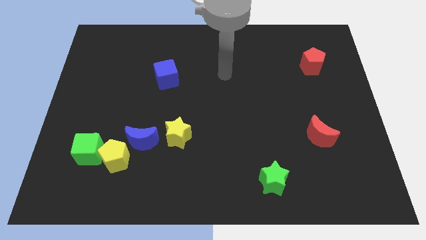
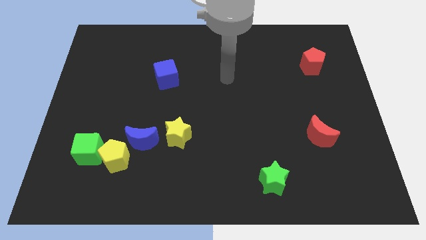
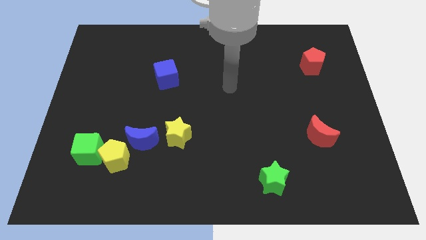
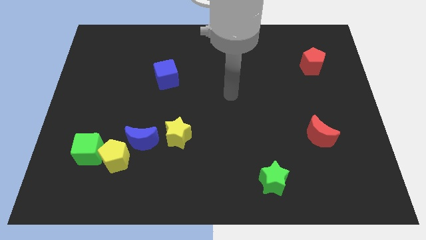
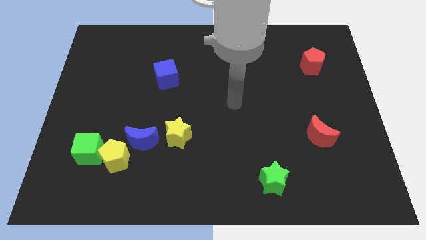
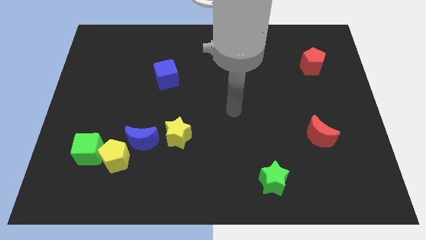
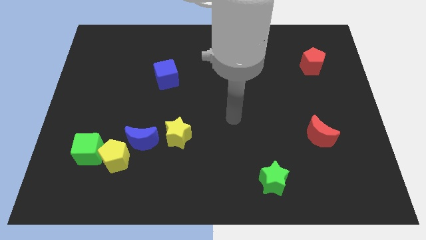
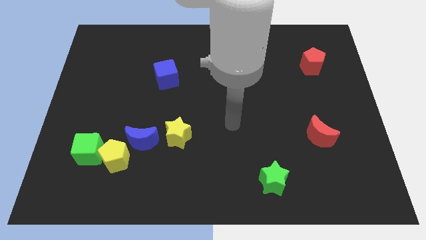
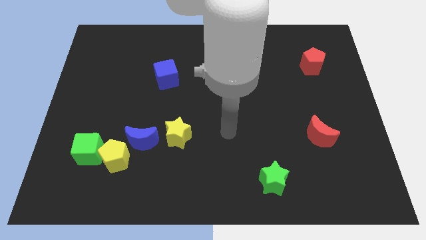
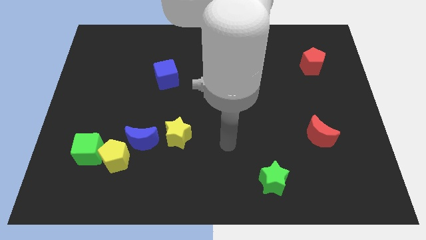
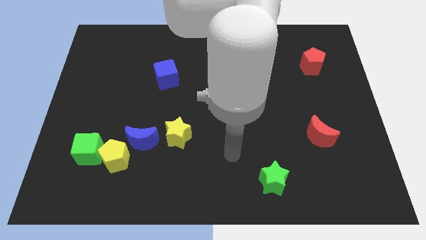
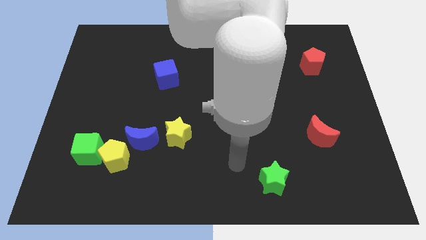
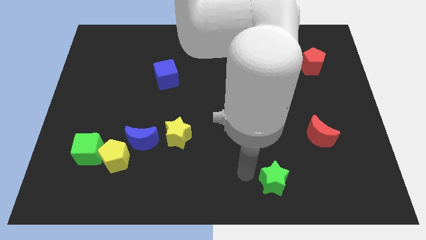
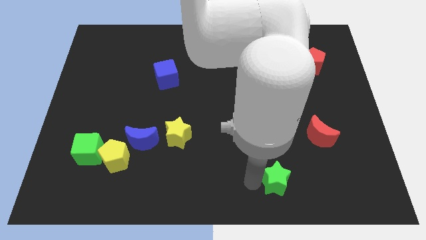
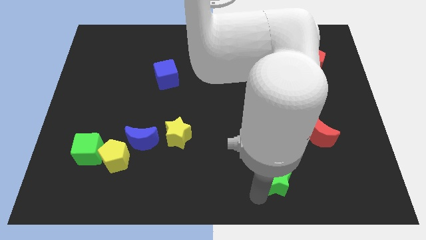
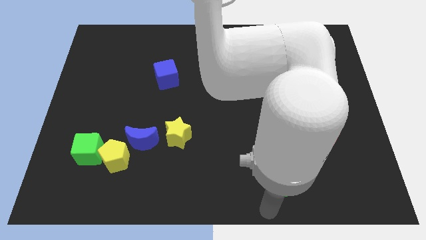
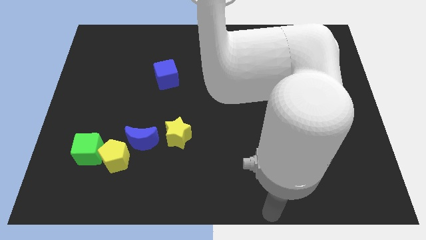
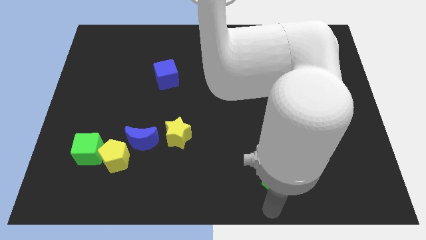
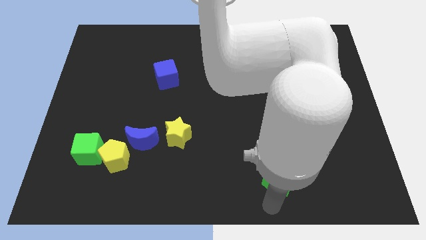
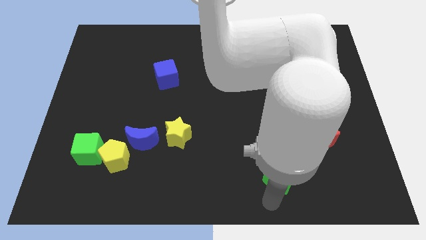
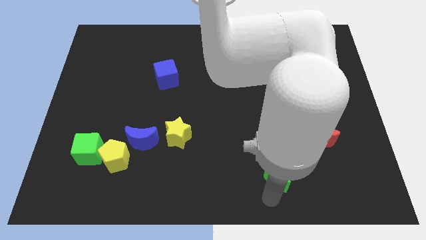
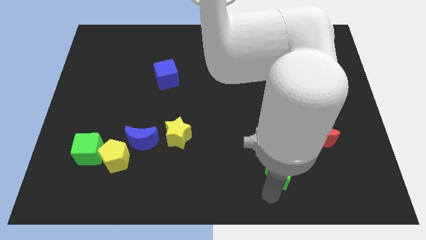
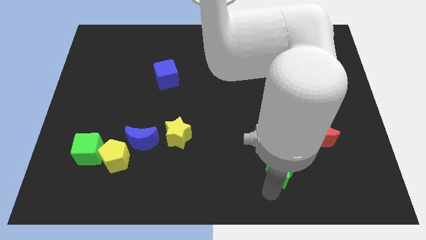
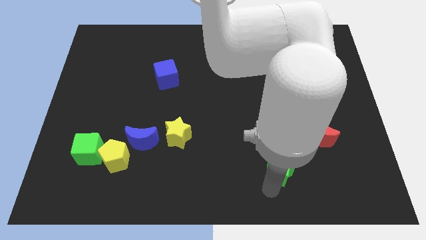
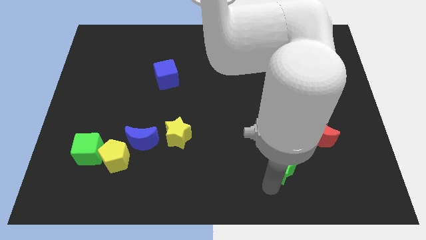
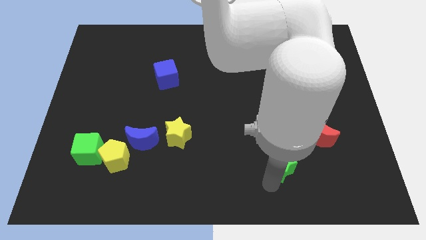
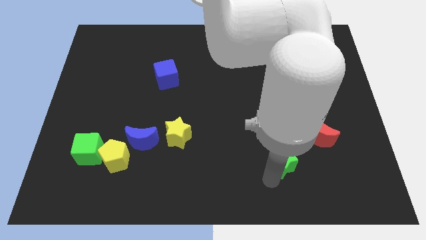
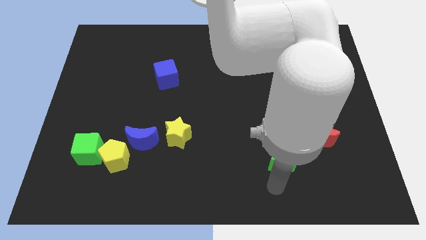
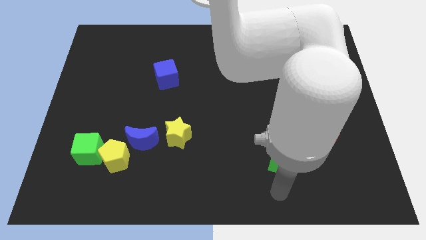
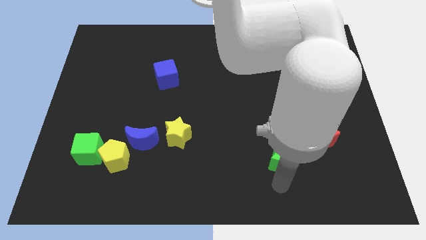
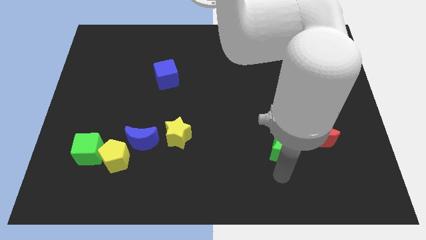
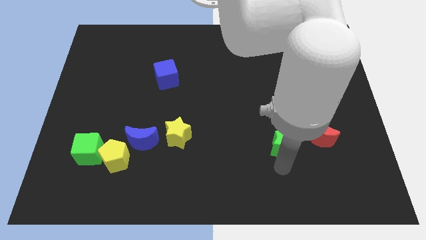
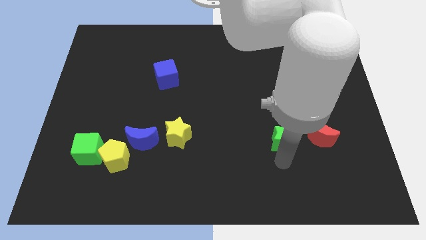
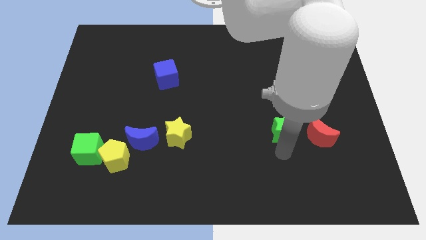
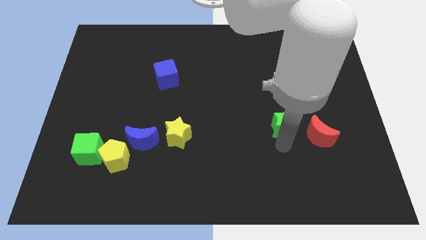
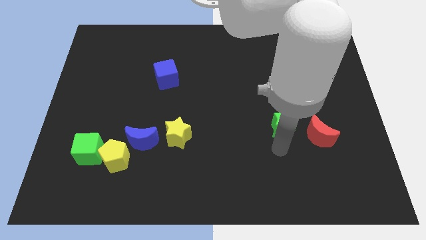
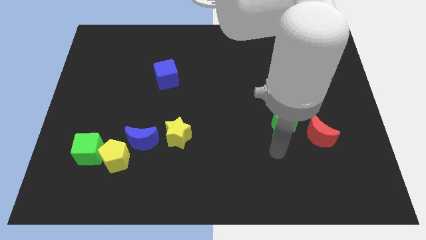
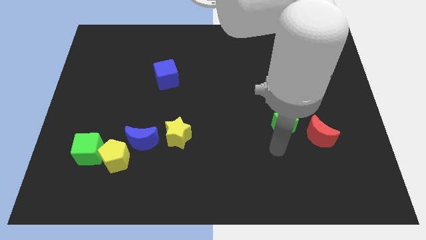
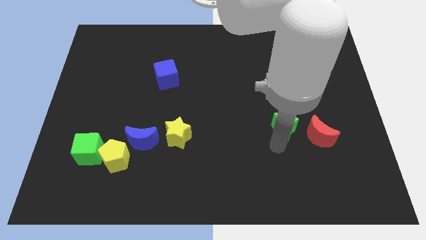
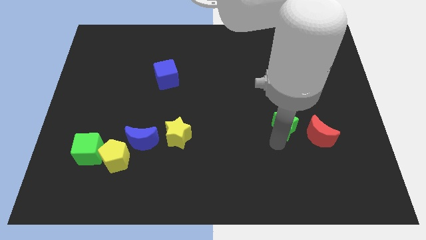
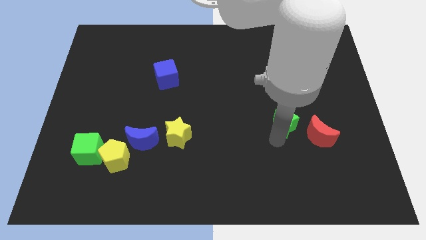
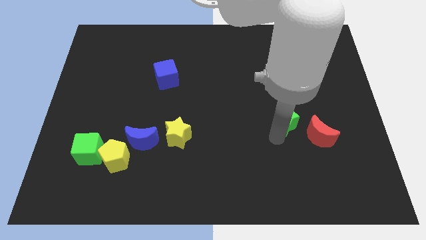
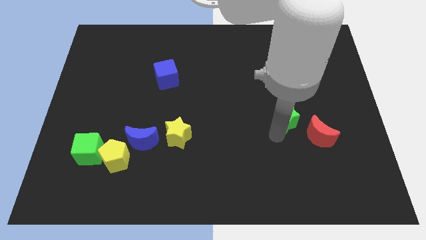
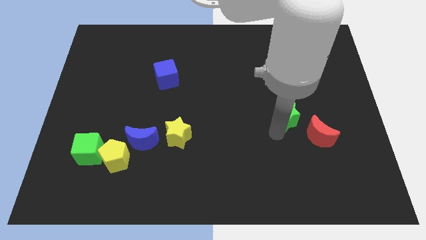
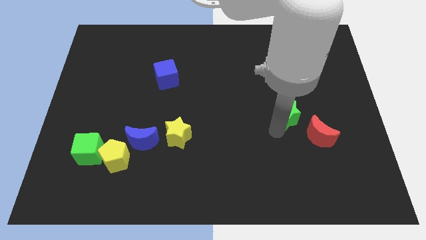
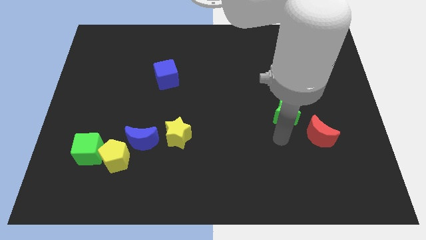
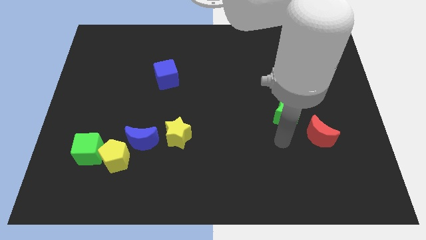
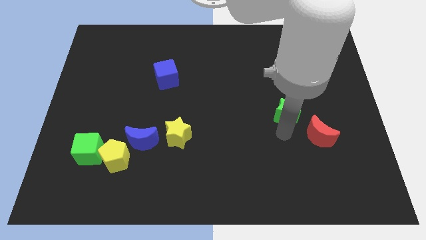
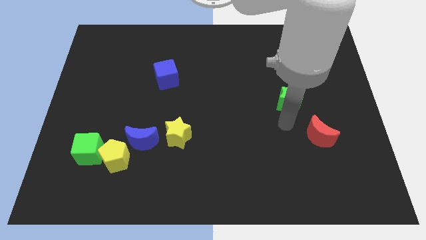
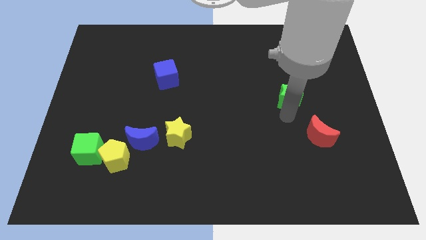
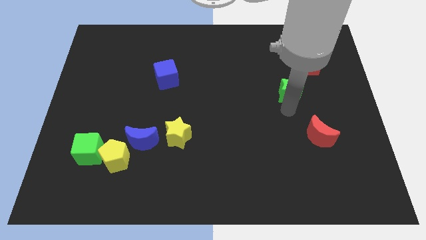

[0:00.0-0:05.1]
put the green star diagonally down and to the left of the red pentagon

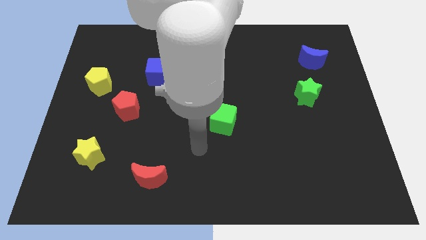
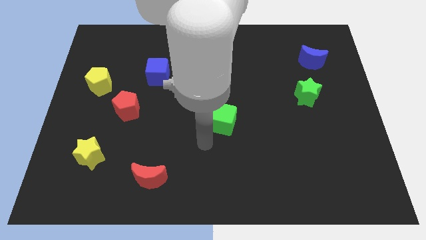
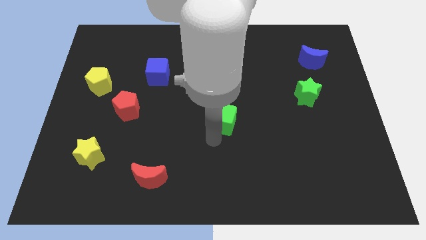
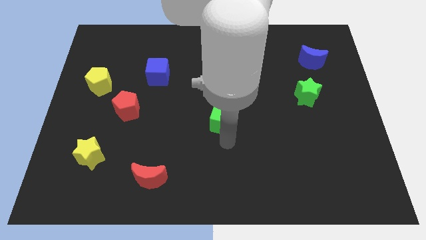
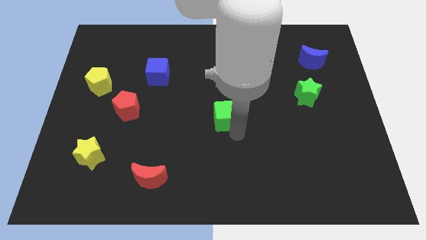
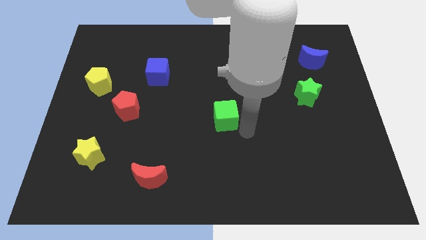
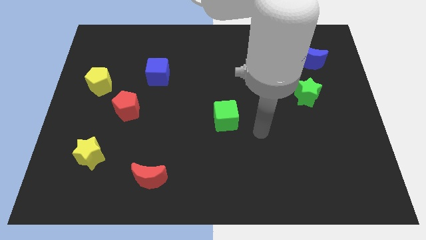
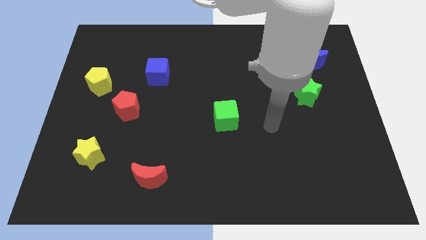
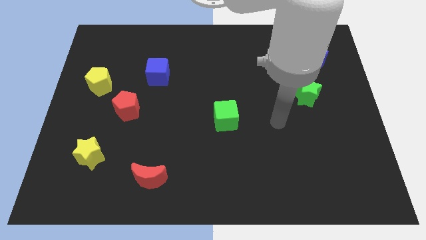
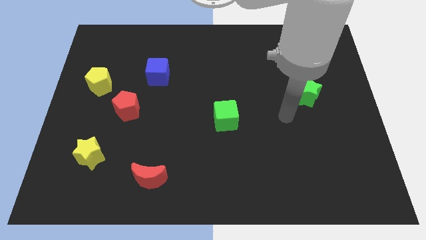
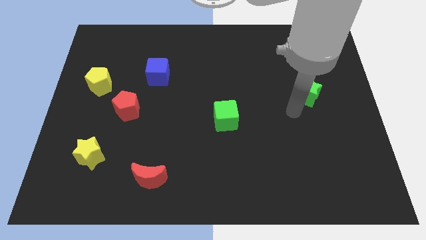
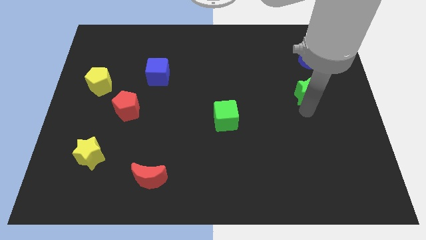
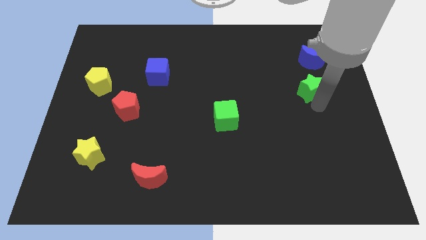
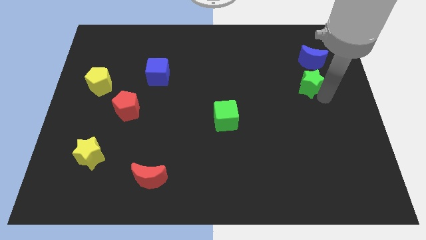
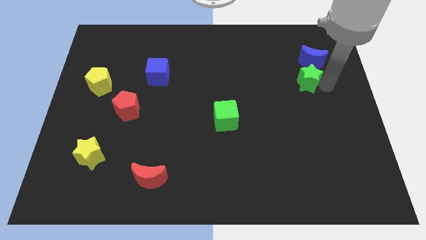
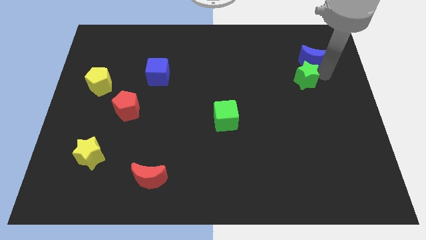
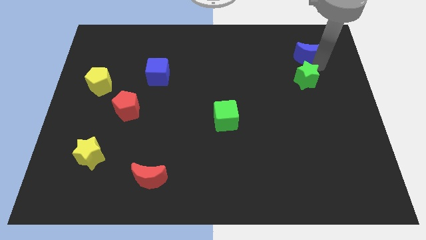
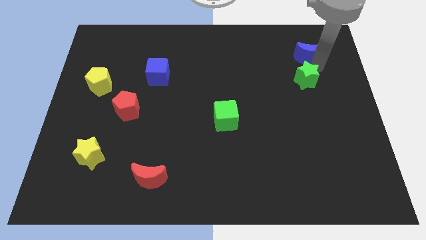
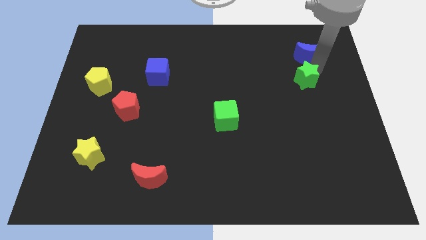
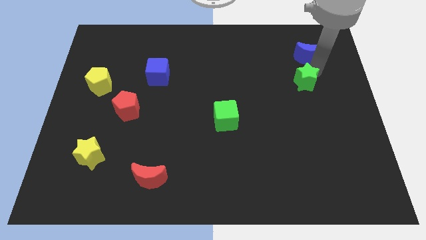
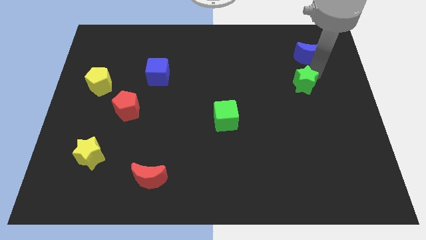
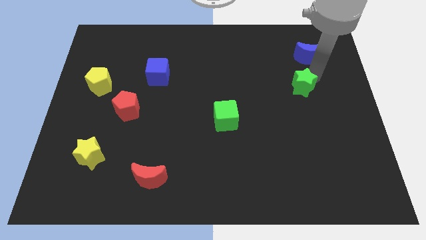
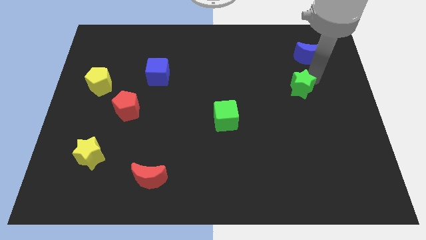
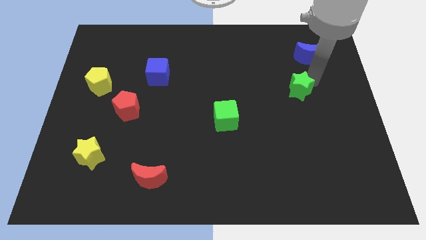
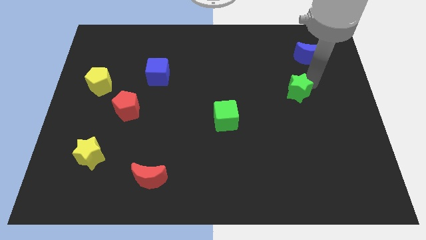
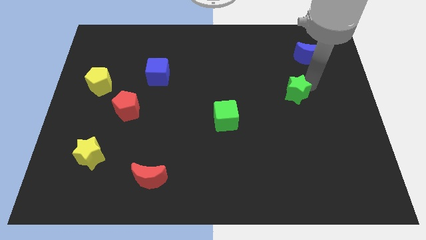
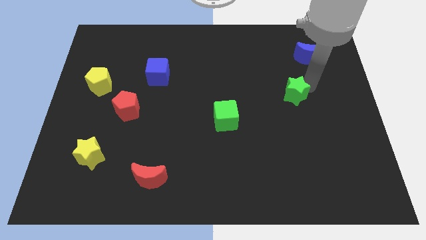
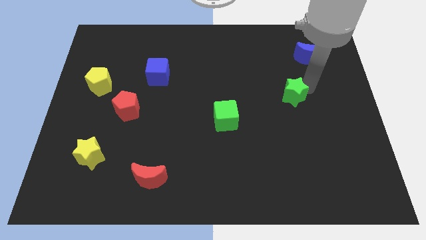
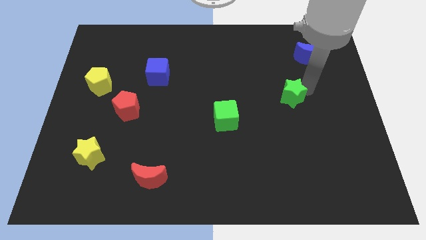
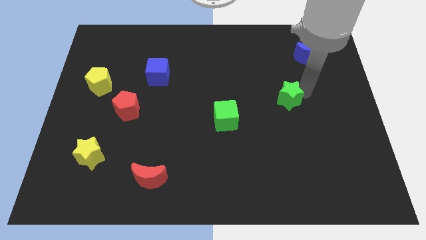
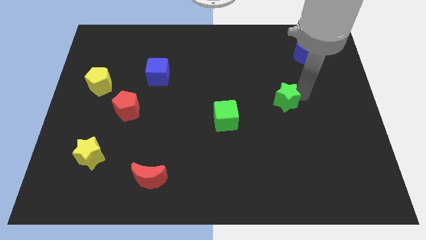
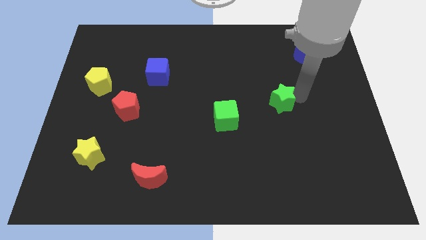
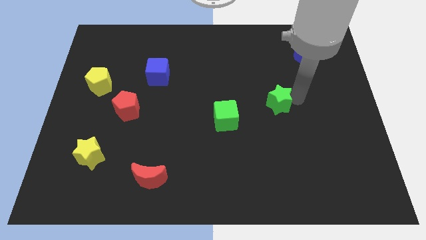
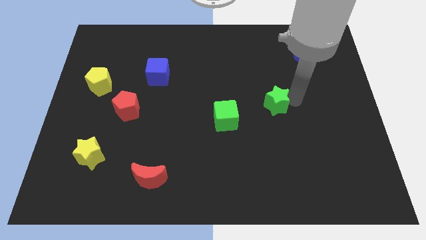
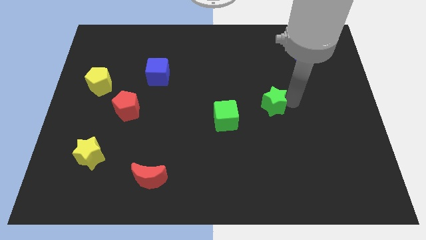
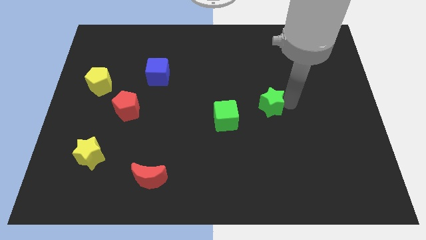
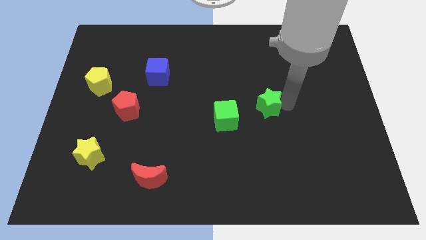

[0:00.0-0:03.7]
push the green star to the top right side of the green cube
